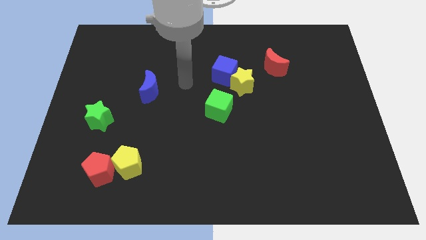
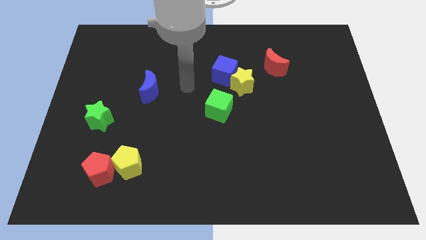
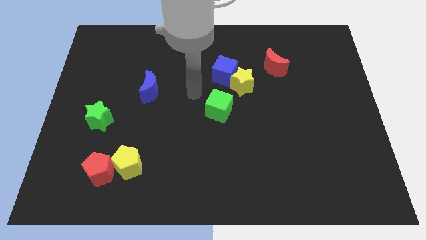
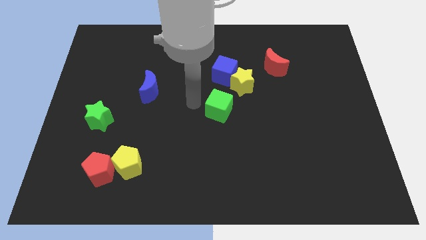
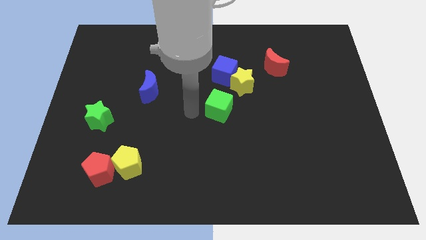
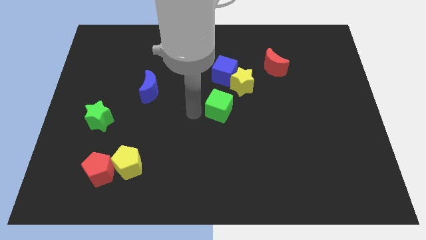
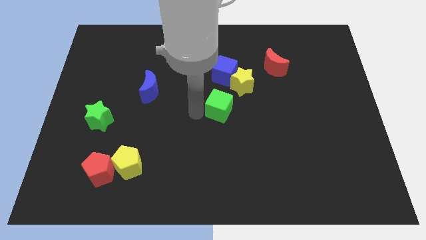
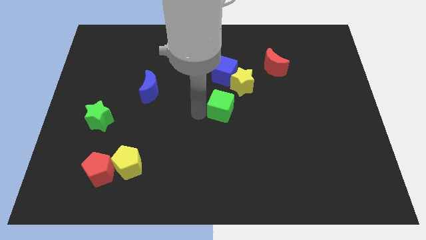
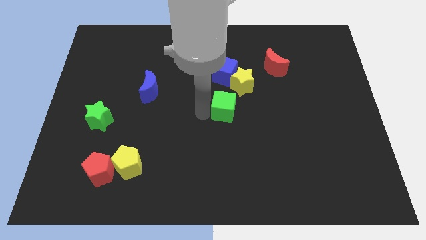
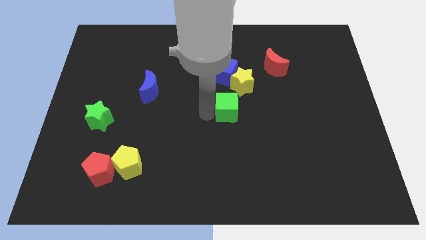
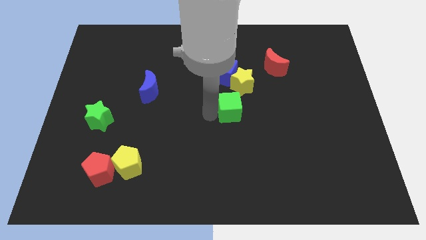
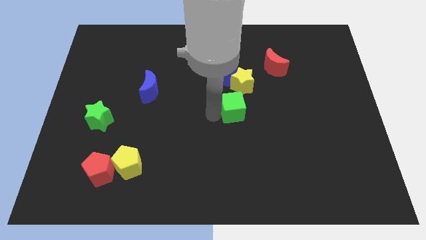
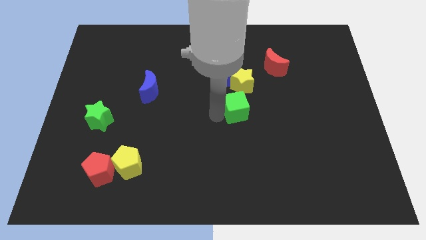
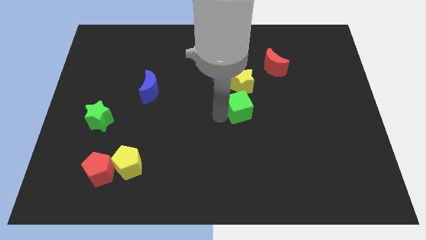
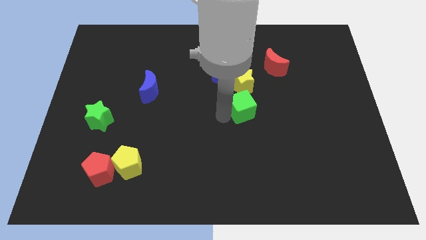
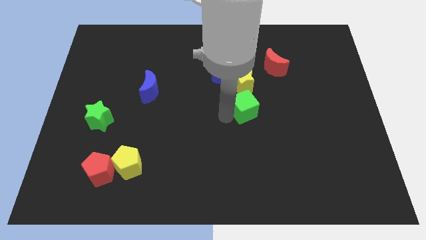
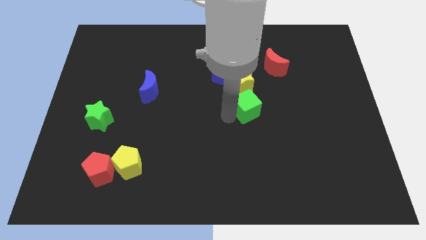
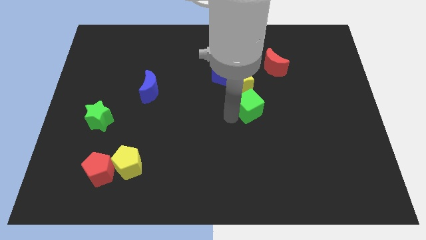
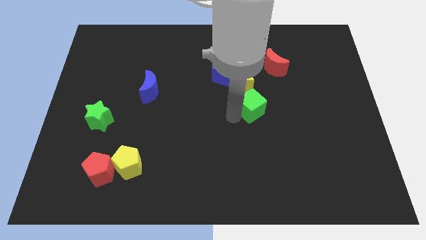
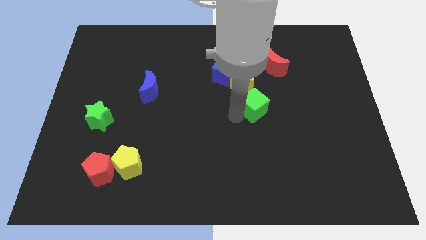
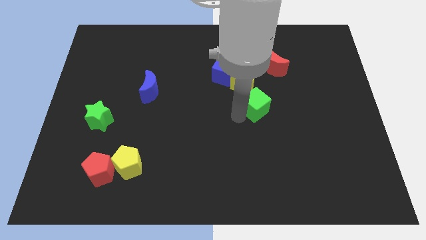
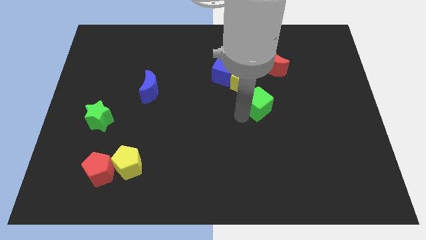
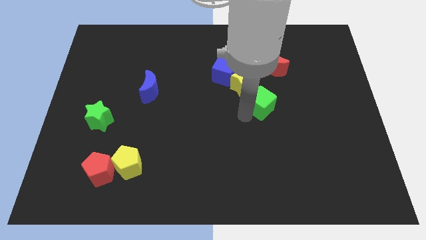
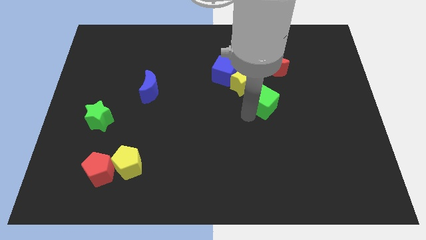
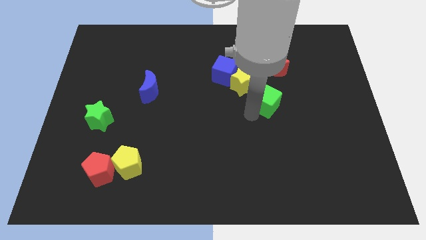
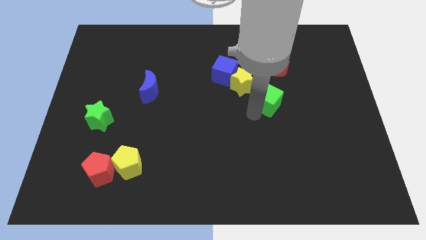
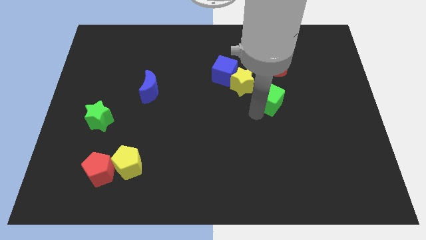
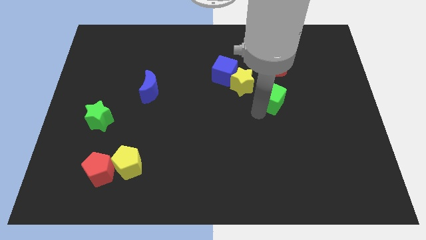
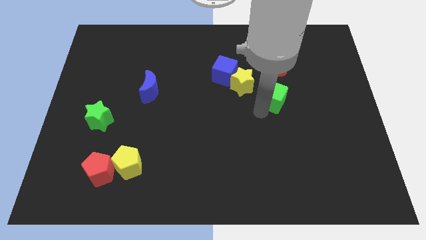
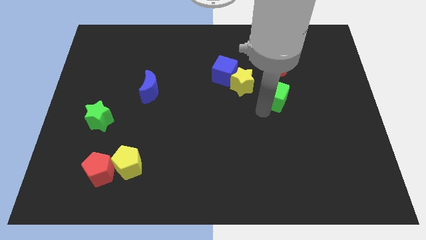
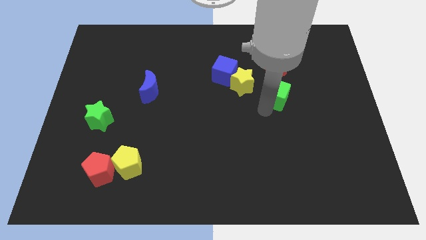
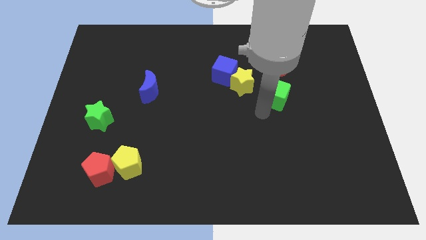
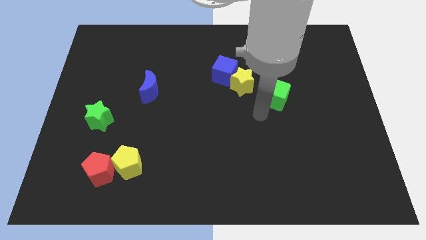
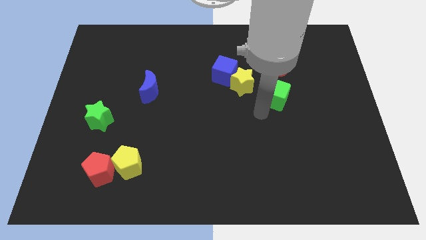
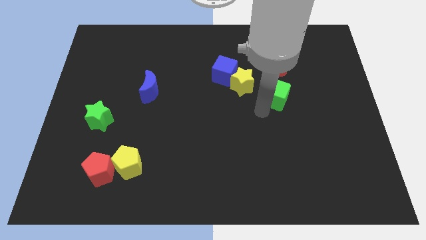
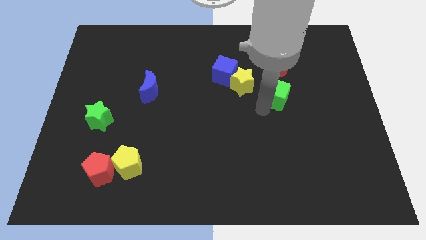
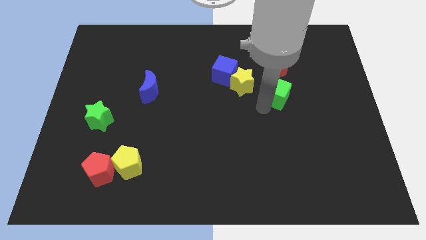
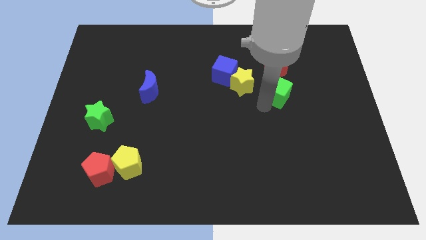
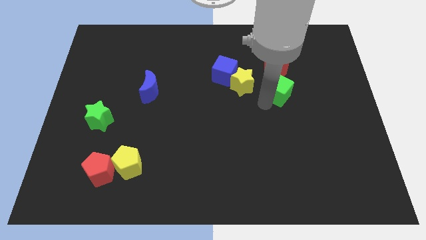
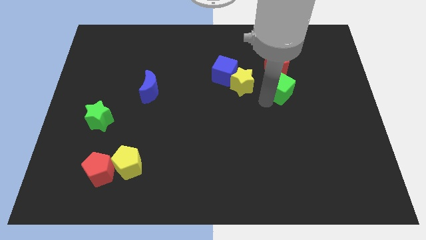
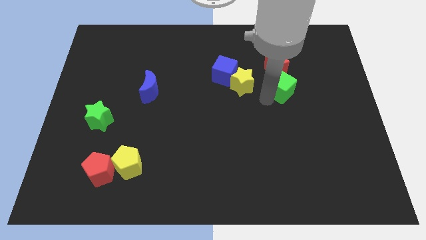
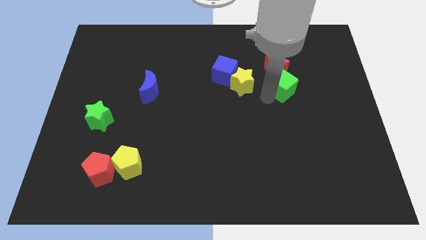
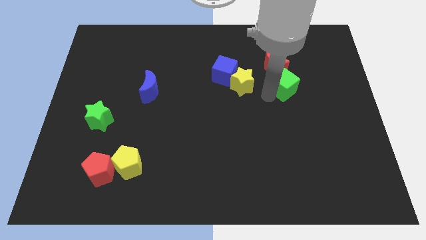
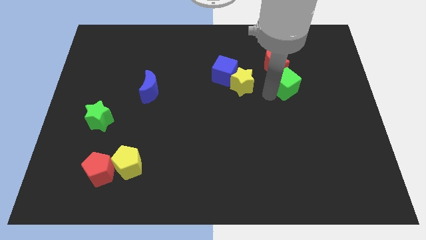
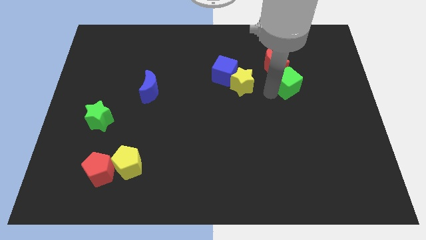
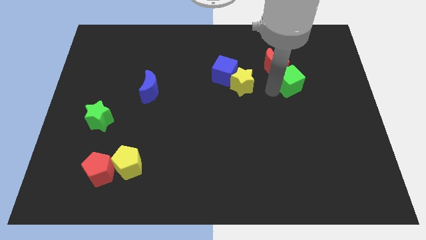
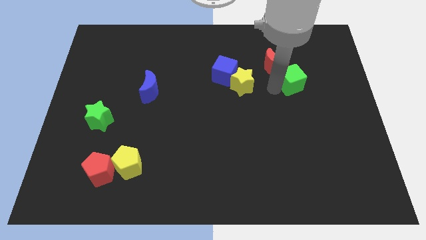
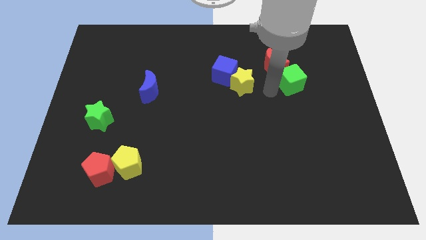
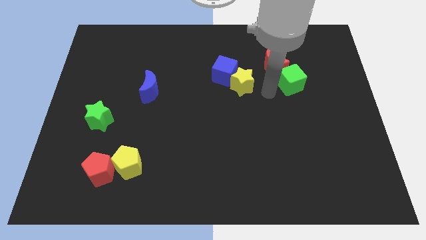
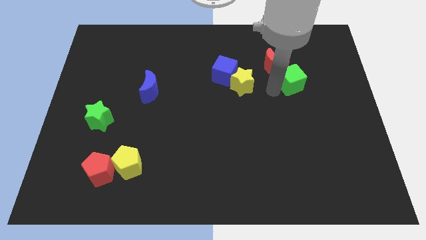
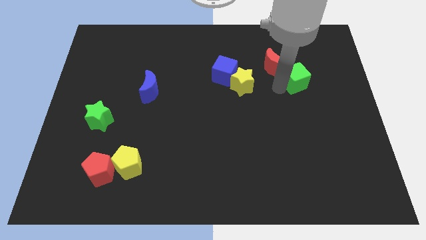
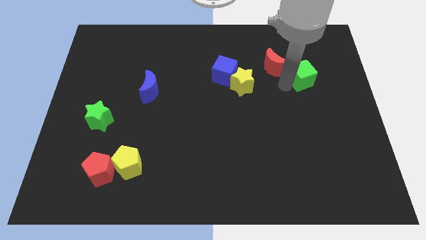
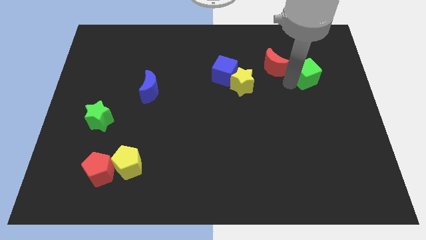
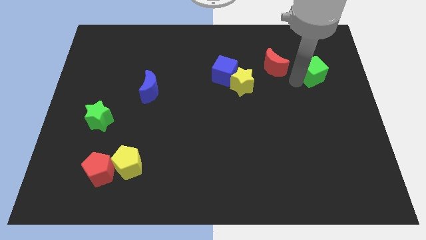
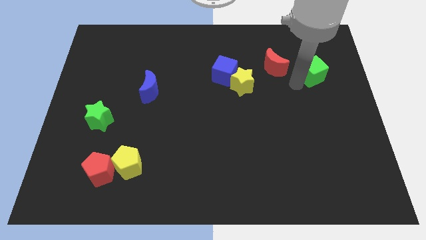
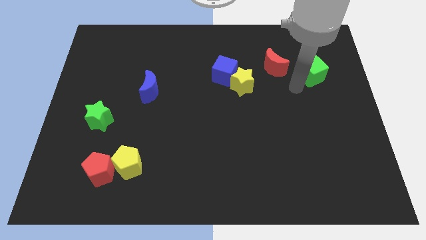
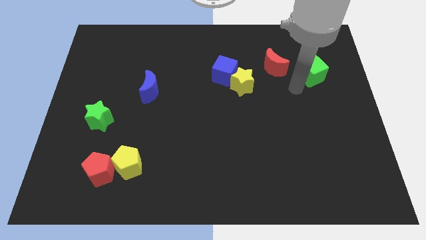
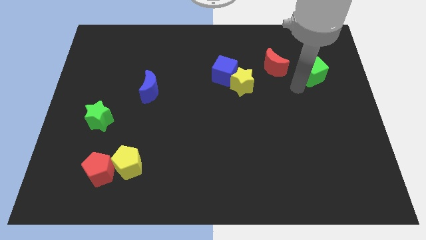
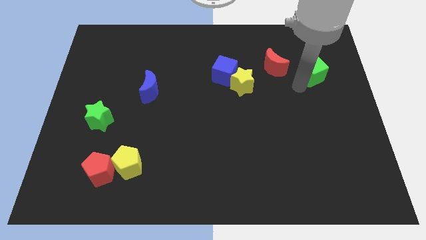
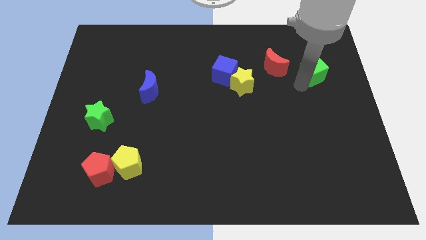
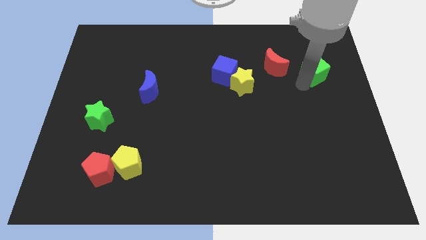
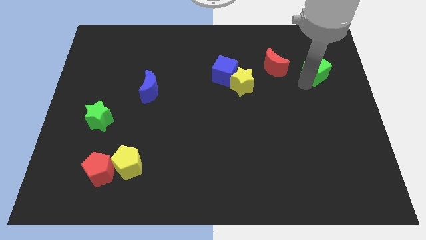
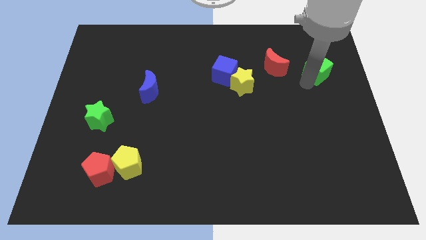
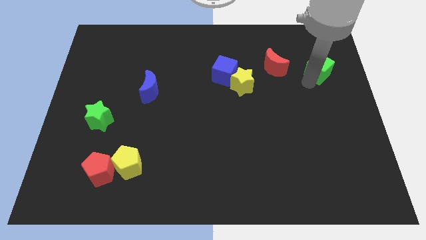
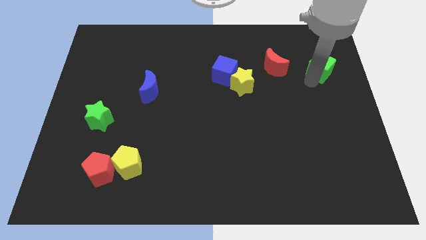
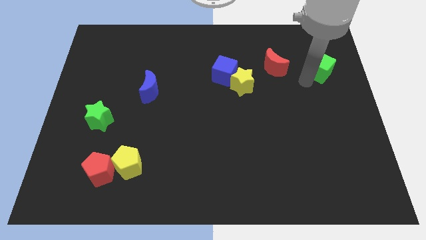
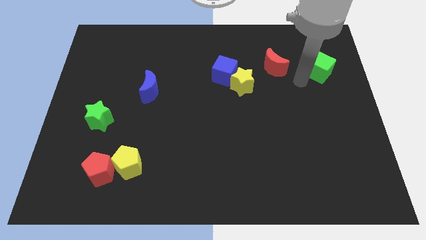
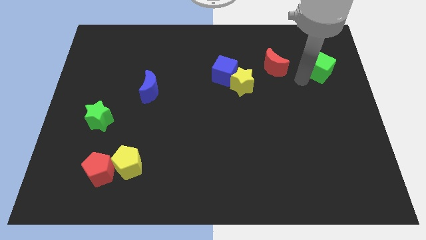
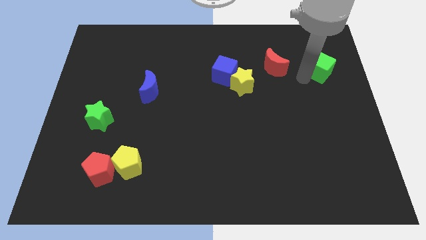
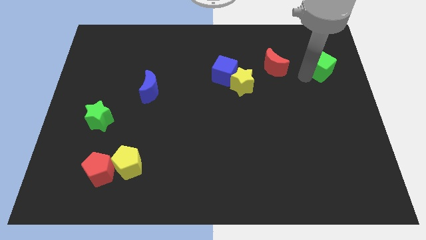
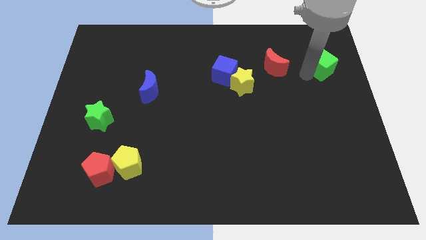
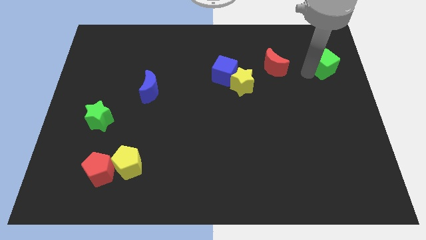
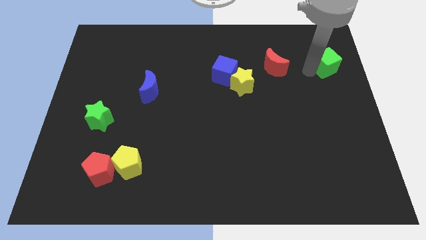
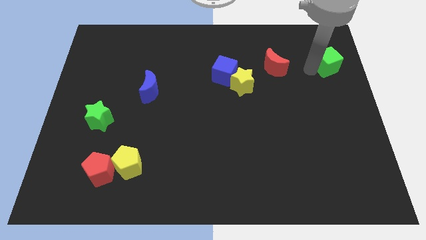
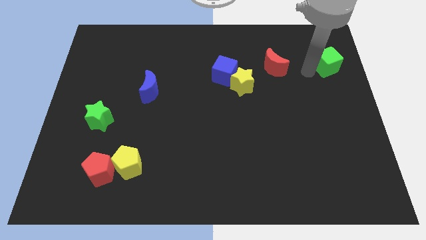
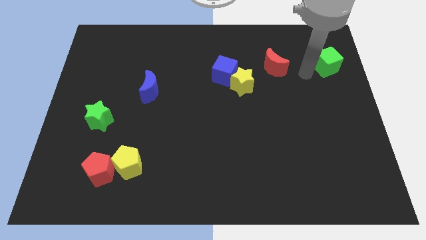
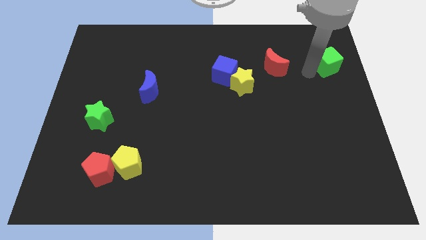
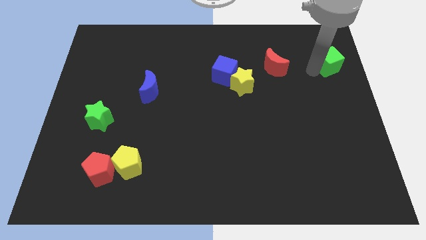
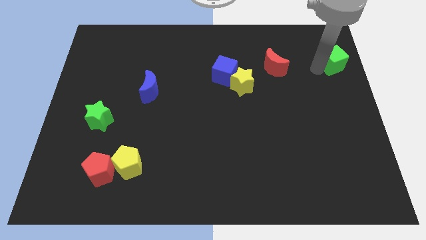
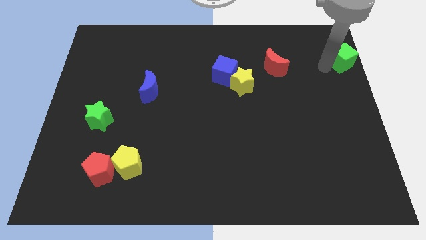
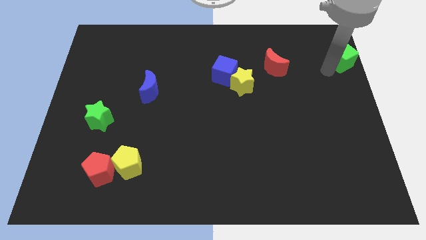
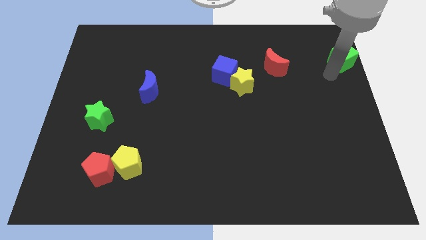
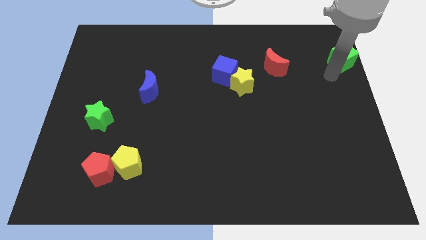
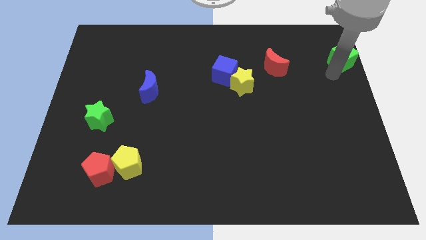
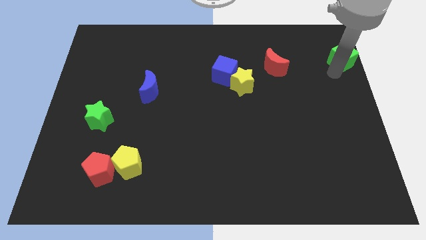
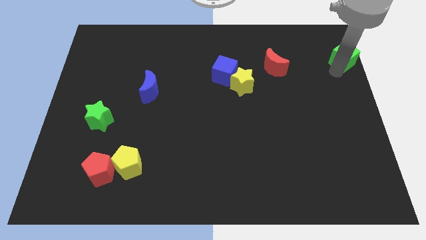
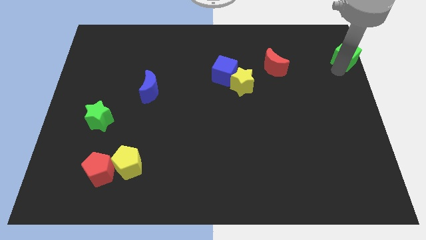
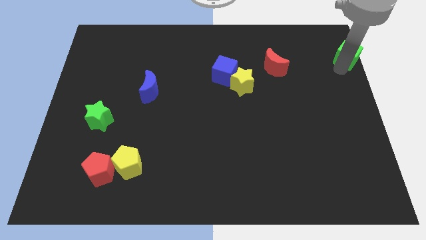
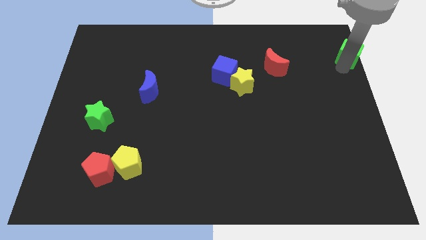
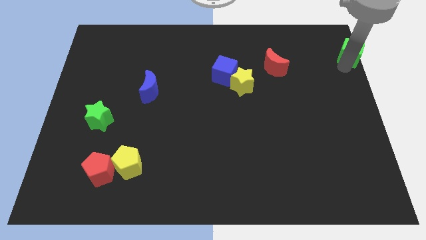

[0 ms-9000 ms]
slide the green cube to the top right corner
